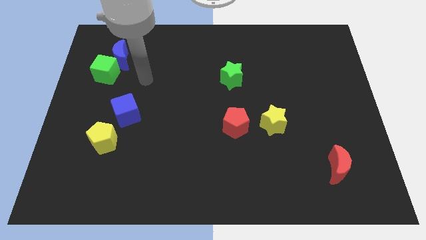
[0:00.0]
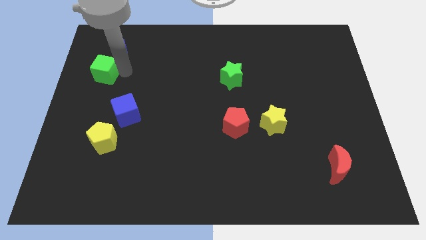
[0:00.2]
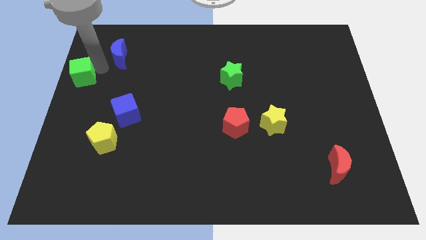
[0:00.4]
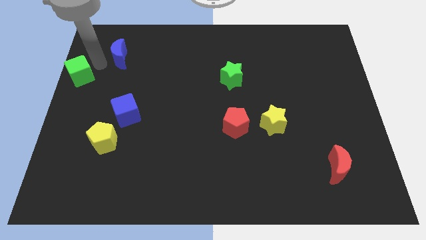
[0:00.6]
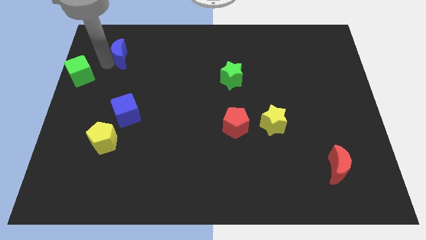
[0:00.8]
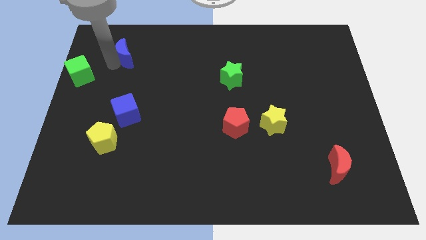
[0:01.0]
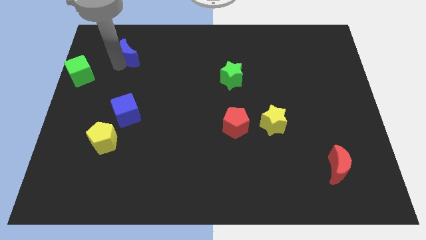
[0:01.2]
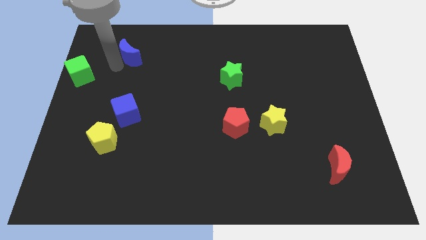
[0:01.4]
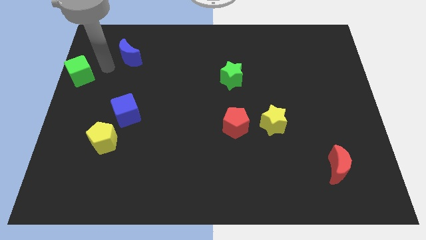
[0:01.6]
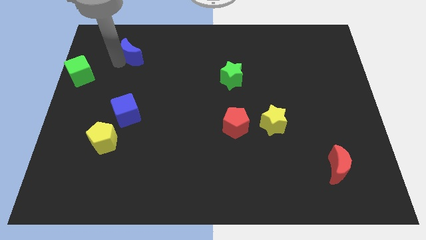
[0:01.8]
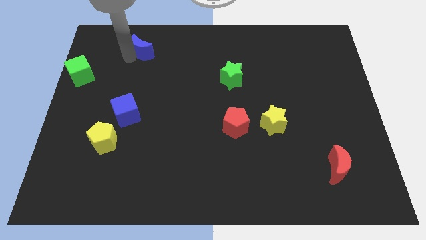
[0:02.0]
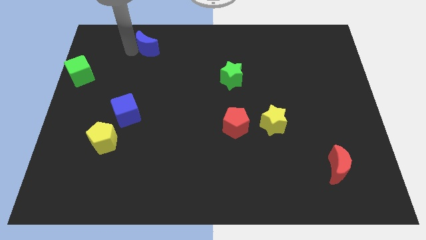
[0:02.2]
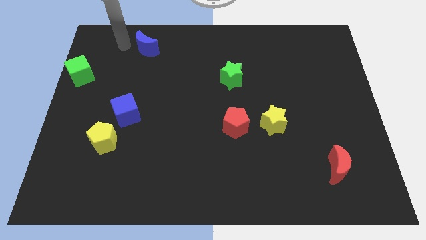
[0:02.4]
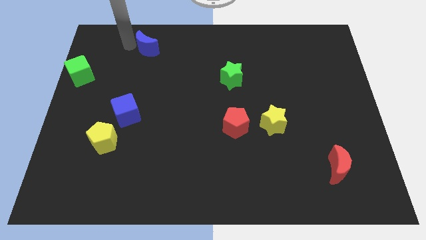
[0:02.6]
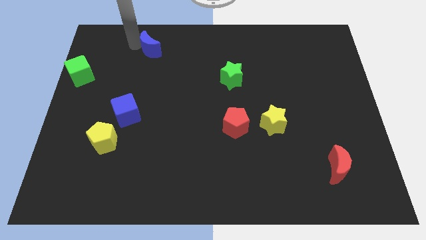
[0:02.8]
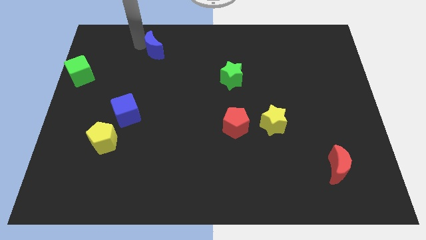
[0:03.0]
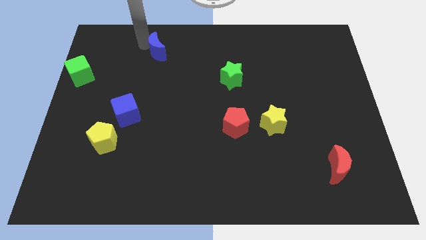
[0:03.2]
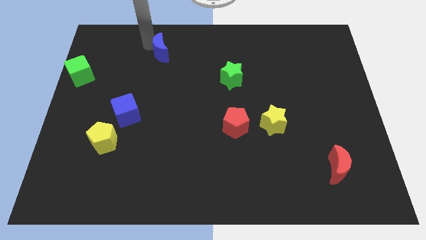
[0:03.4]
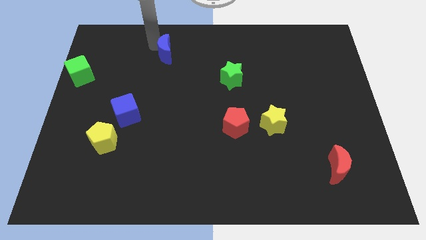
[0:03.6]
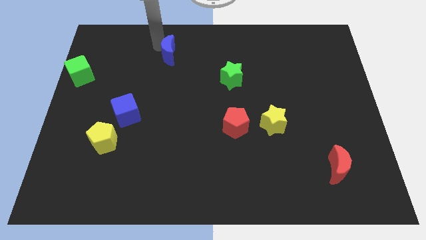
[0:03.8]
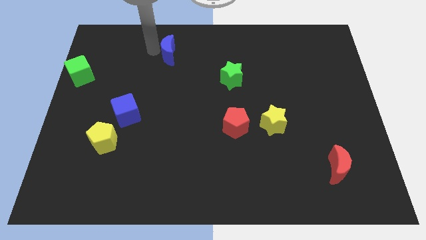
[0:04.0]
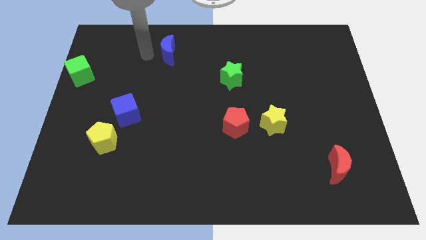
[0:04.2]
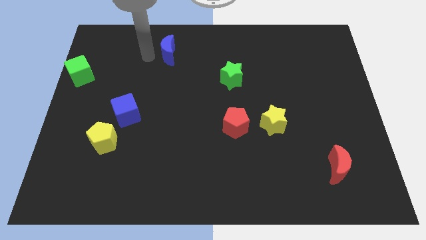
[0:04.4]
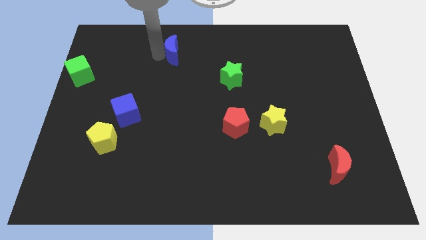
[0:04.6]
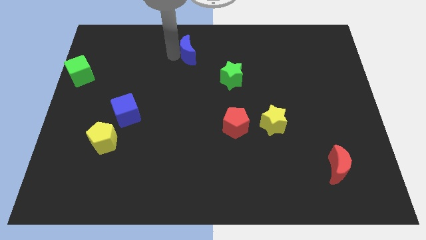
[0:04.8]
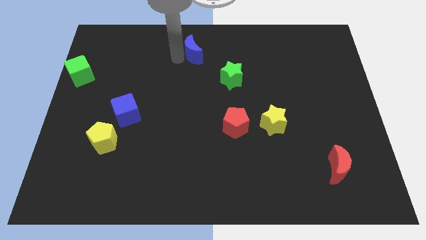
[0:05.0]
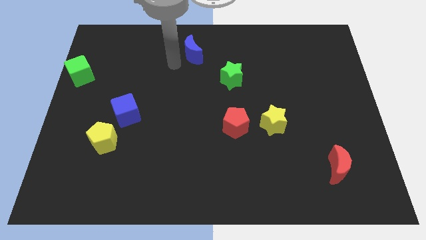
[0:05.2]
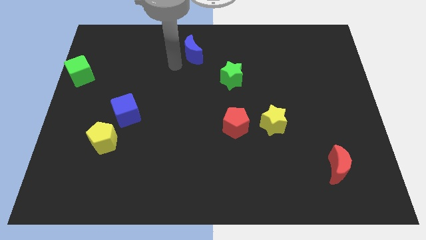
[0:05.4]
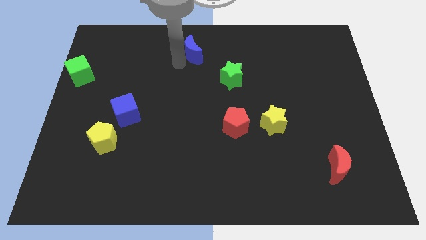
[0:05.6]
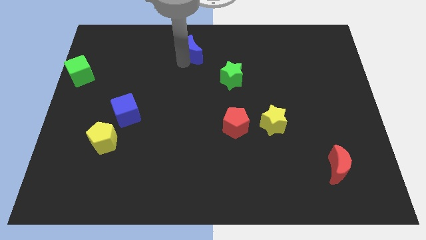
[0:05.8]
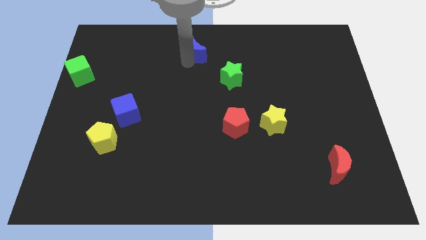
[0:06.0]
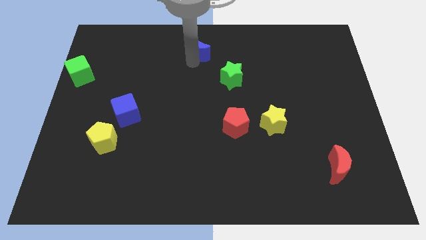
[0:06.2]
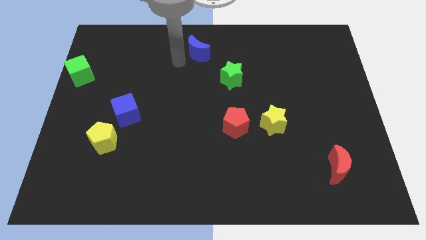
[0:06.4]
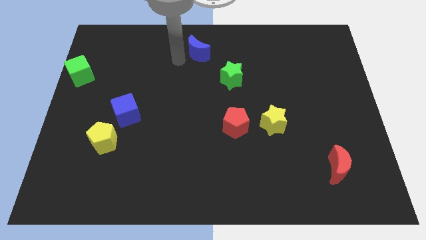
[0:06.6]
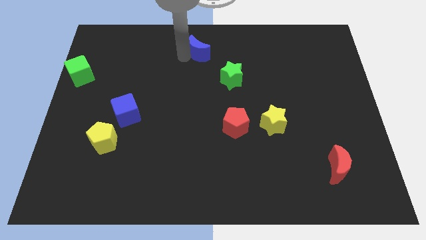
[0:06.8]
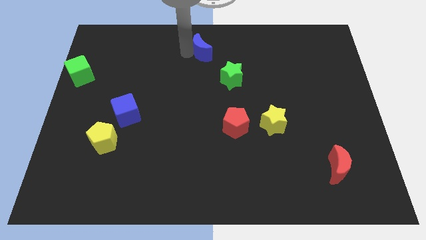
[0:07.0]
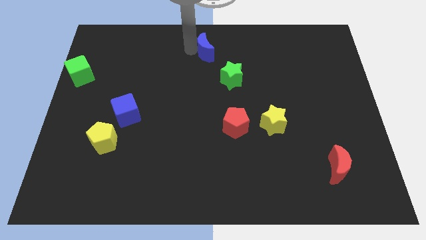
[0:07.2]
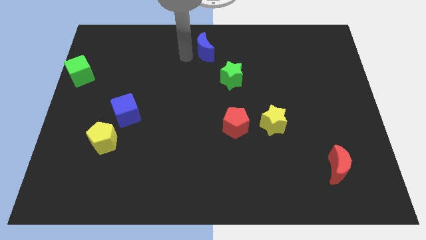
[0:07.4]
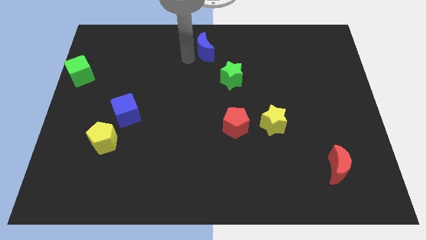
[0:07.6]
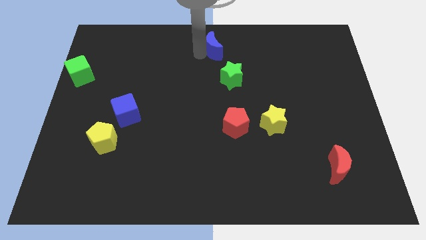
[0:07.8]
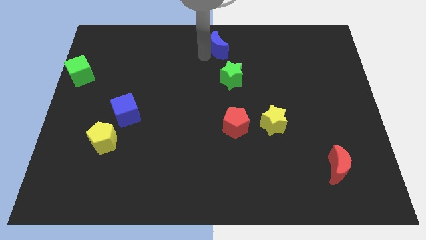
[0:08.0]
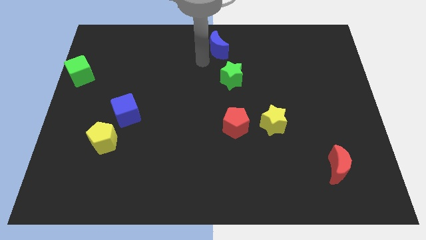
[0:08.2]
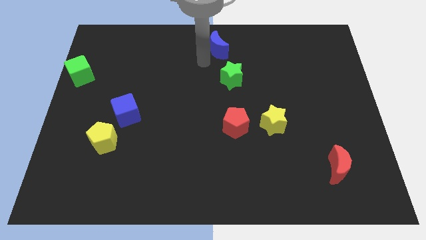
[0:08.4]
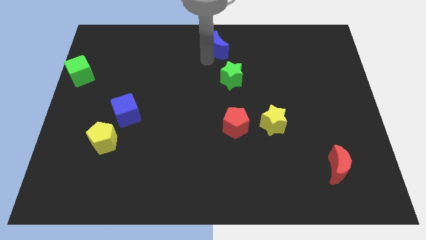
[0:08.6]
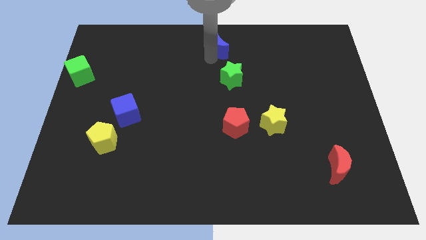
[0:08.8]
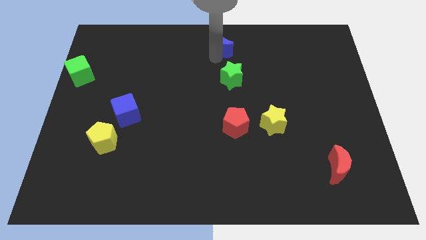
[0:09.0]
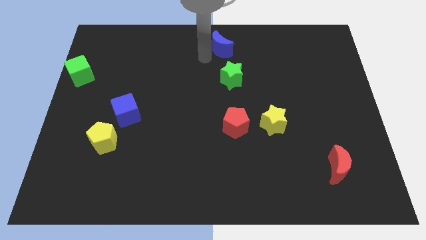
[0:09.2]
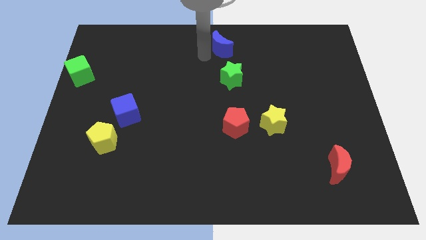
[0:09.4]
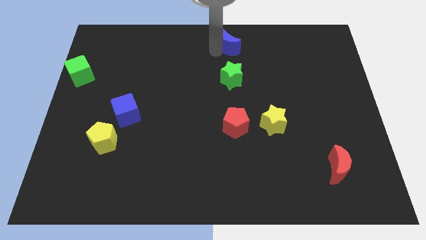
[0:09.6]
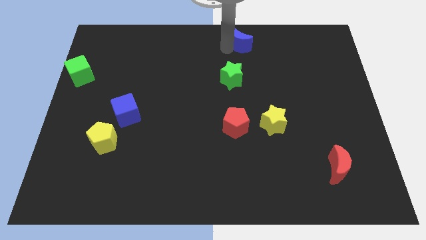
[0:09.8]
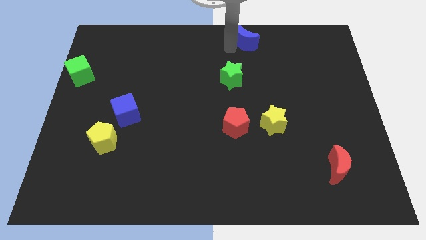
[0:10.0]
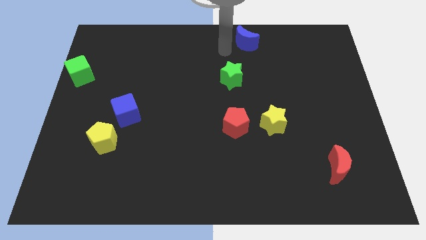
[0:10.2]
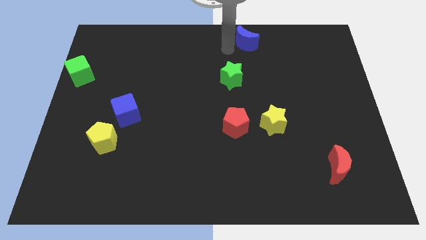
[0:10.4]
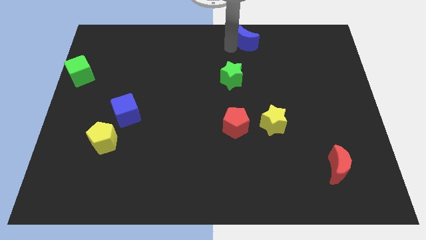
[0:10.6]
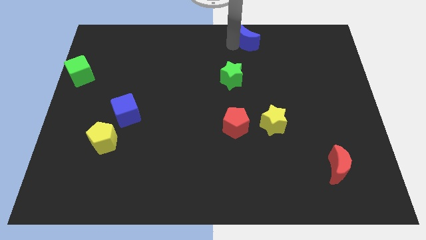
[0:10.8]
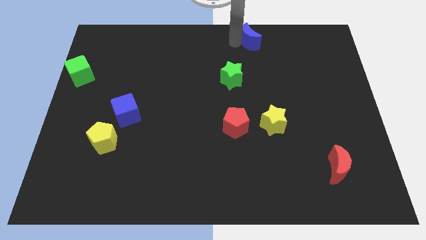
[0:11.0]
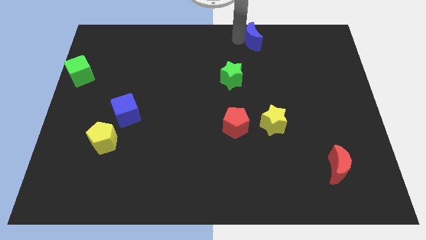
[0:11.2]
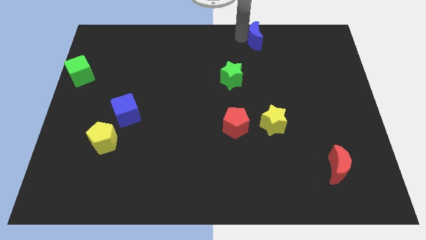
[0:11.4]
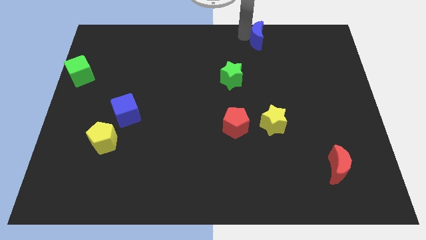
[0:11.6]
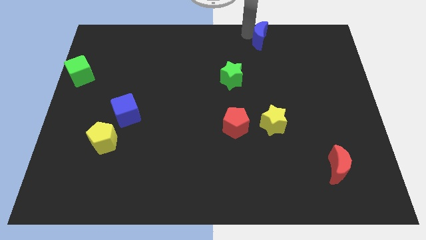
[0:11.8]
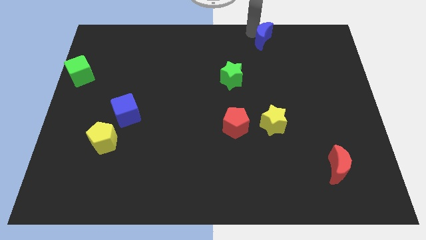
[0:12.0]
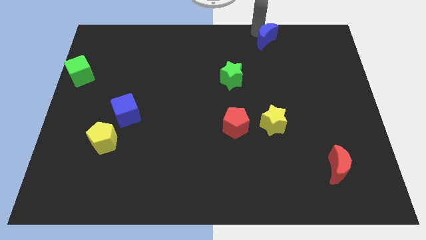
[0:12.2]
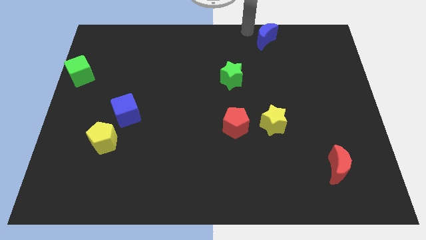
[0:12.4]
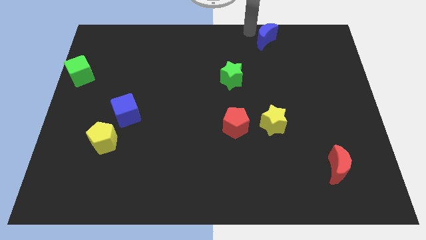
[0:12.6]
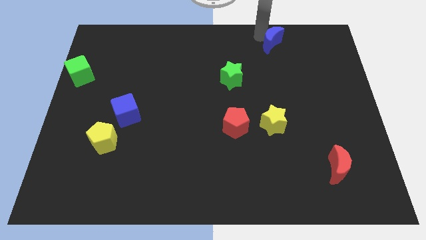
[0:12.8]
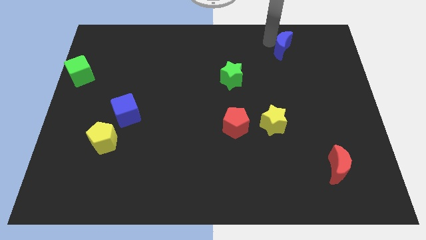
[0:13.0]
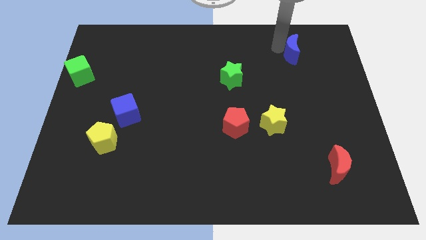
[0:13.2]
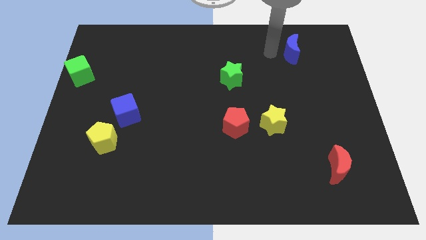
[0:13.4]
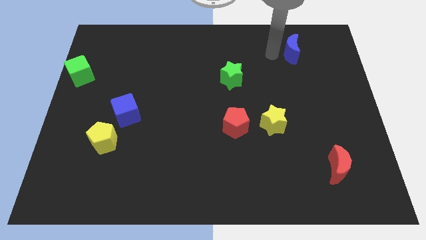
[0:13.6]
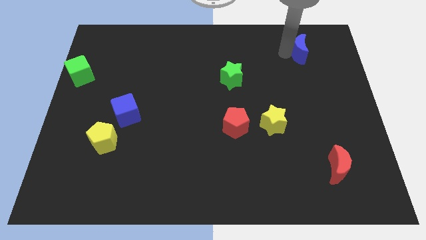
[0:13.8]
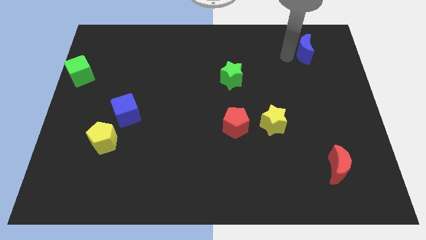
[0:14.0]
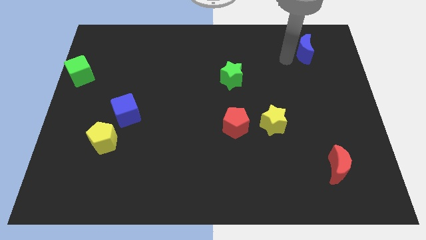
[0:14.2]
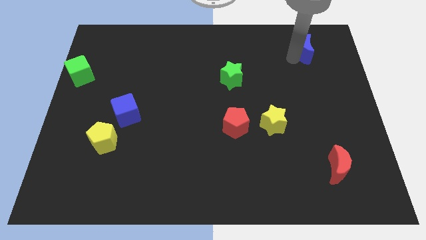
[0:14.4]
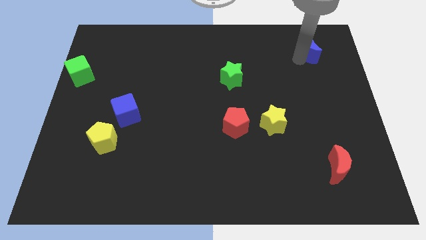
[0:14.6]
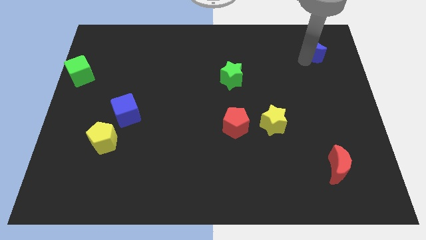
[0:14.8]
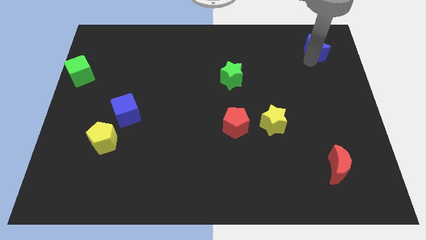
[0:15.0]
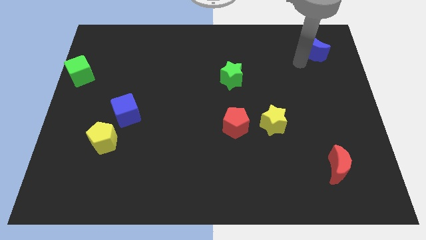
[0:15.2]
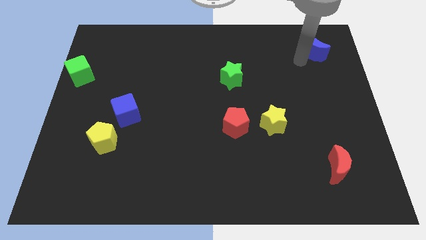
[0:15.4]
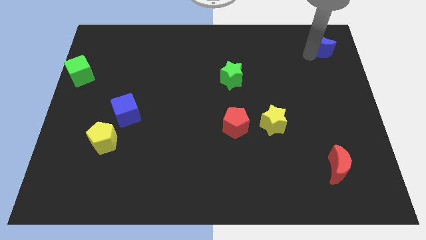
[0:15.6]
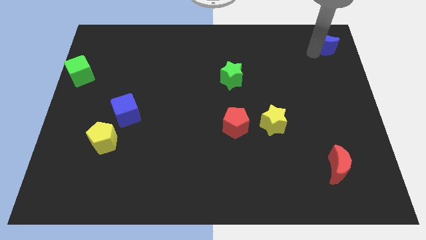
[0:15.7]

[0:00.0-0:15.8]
slide the blue moon to the top right corner

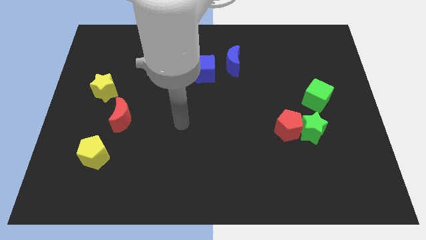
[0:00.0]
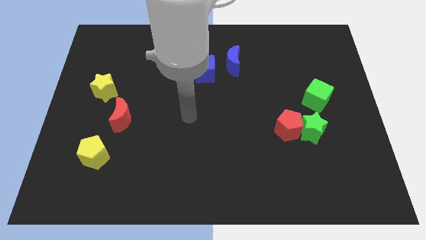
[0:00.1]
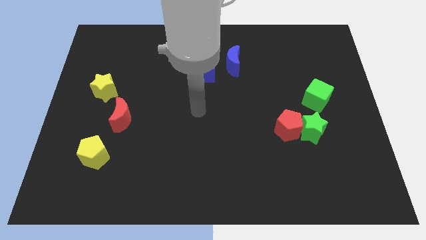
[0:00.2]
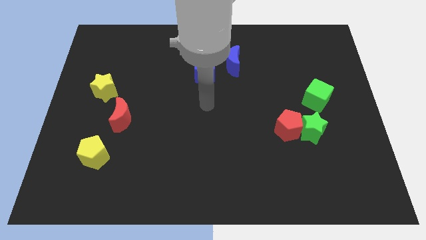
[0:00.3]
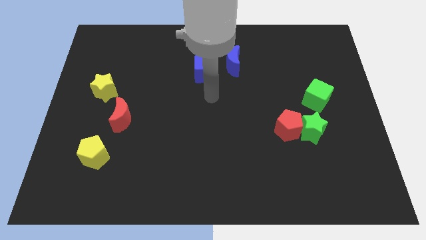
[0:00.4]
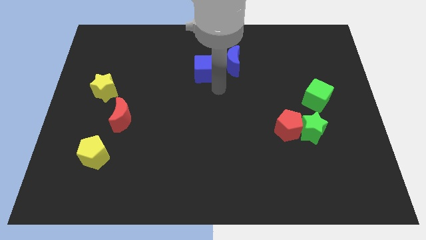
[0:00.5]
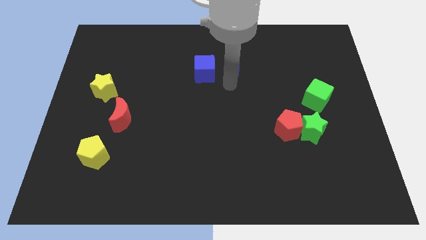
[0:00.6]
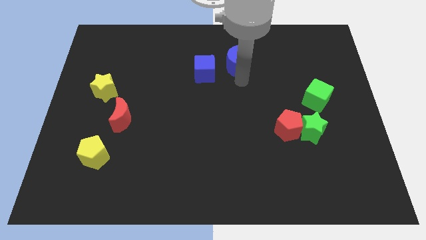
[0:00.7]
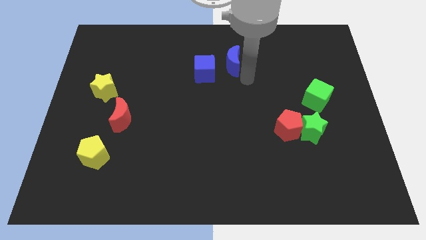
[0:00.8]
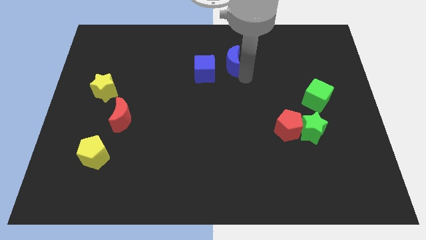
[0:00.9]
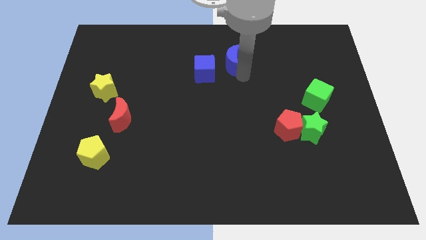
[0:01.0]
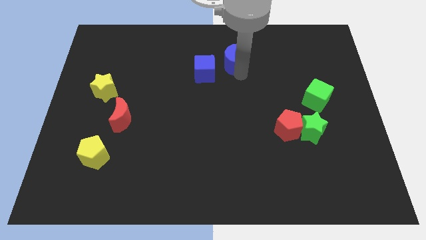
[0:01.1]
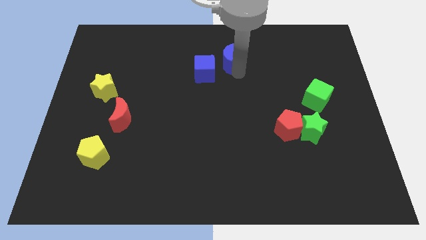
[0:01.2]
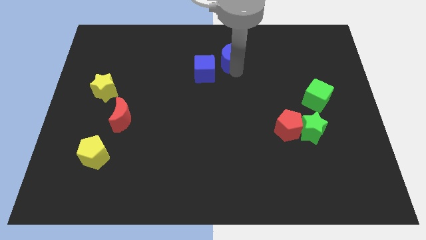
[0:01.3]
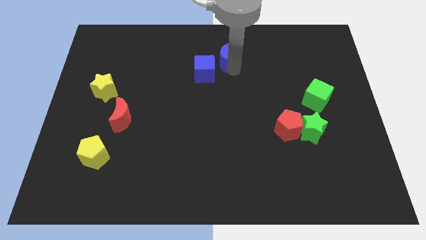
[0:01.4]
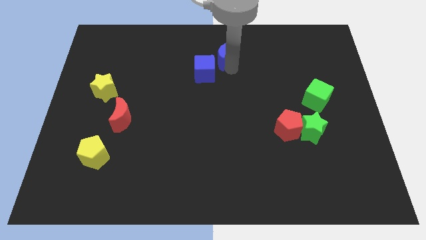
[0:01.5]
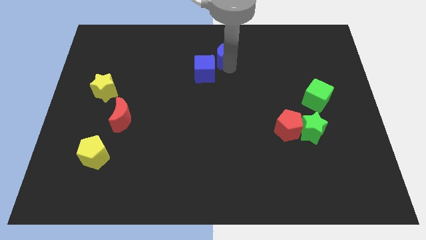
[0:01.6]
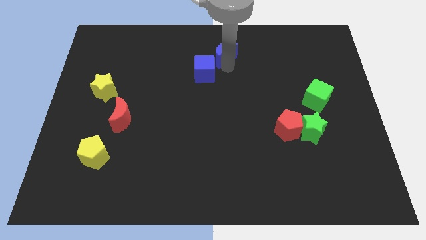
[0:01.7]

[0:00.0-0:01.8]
slide the blue moon to the top side
